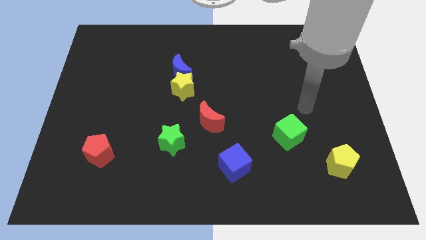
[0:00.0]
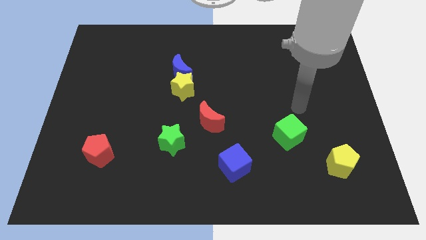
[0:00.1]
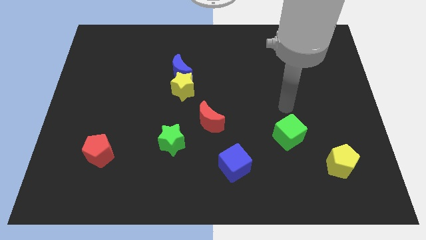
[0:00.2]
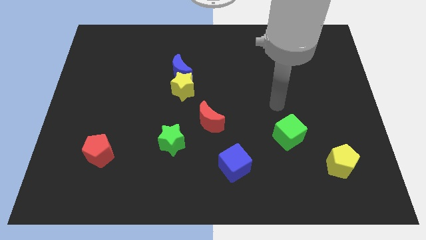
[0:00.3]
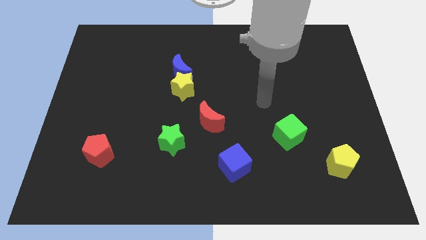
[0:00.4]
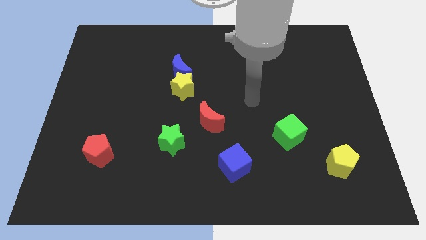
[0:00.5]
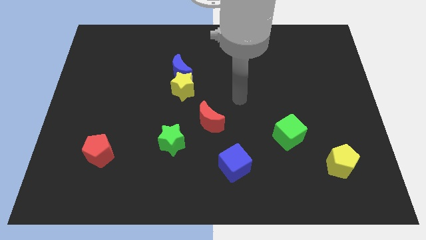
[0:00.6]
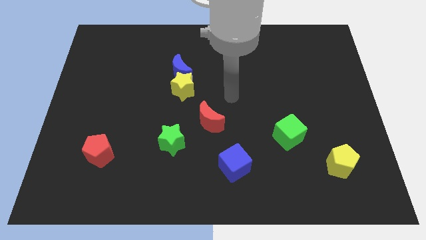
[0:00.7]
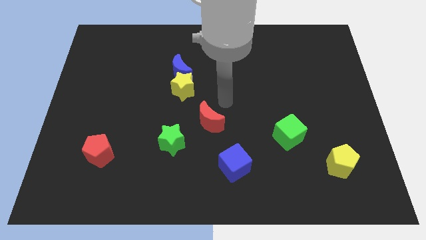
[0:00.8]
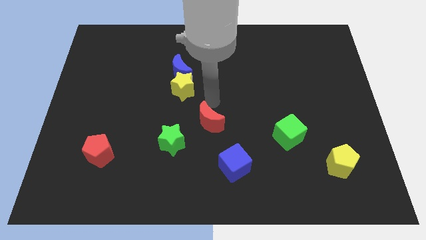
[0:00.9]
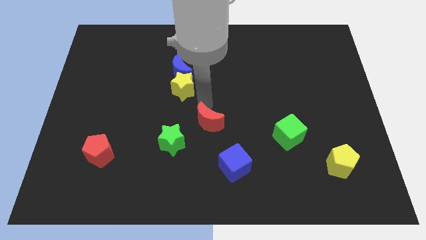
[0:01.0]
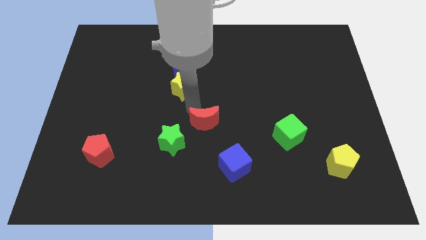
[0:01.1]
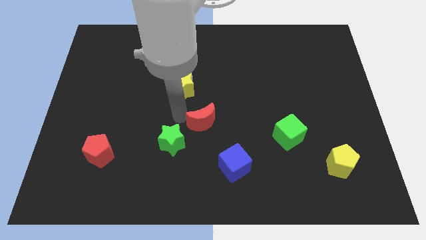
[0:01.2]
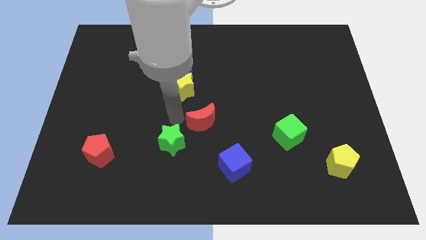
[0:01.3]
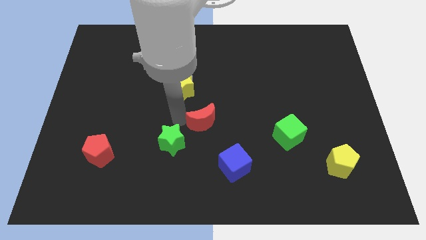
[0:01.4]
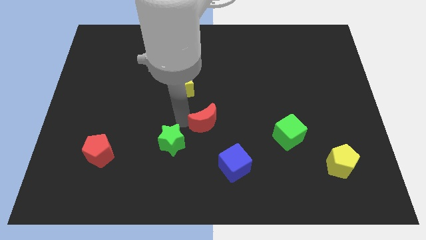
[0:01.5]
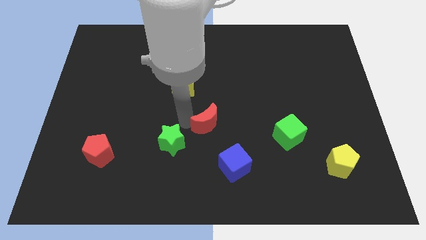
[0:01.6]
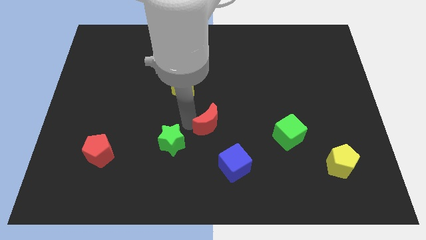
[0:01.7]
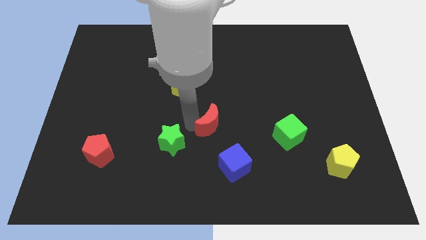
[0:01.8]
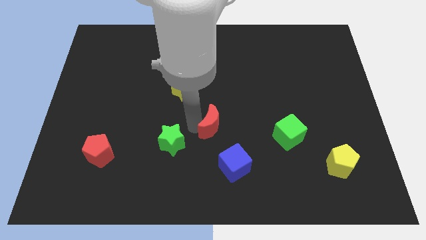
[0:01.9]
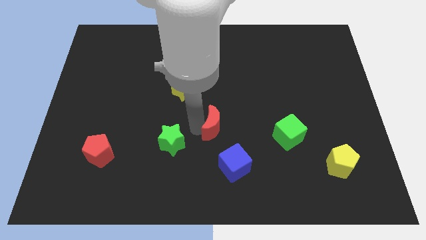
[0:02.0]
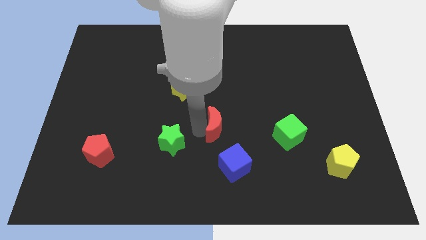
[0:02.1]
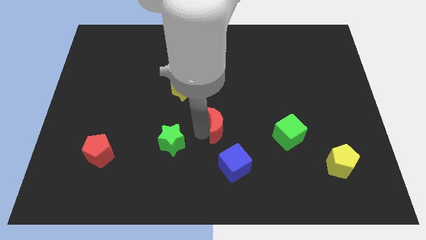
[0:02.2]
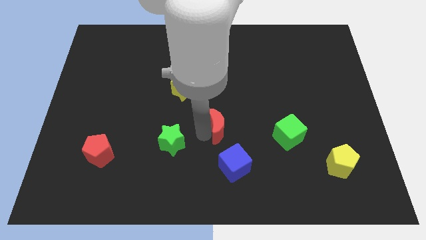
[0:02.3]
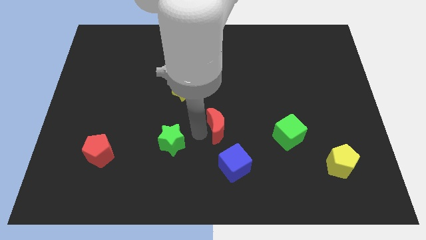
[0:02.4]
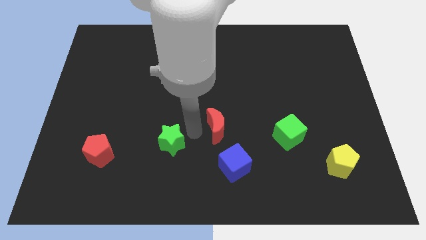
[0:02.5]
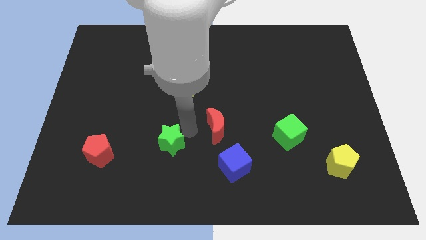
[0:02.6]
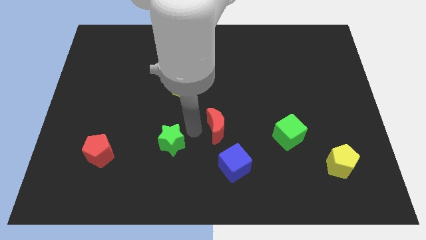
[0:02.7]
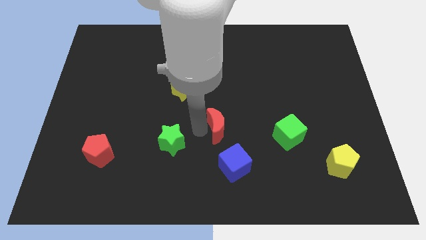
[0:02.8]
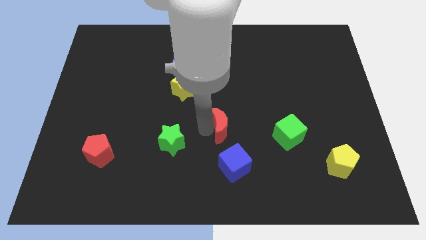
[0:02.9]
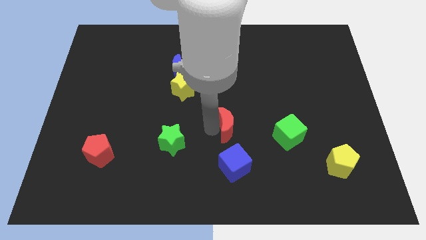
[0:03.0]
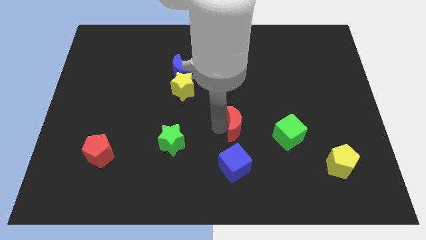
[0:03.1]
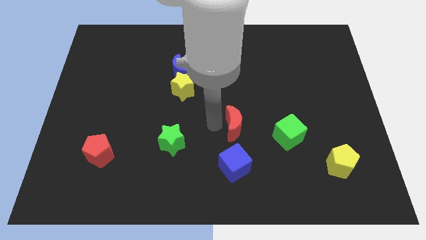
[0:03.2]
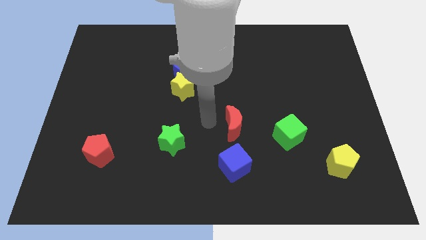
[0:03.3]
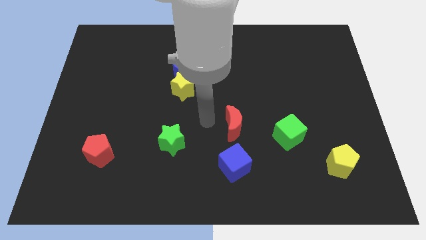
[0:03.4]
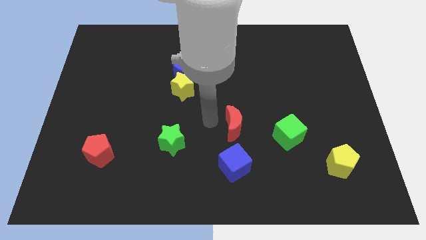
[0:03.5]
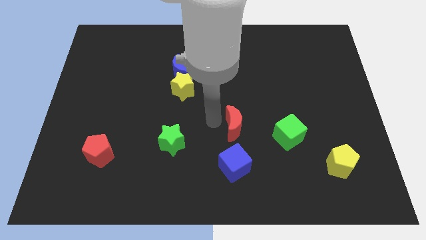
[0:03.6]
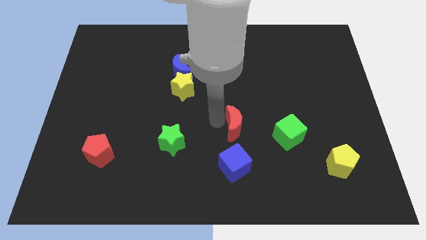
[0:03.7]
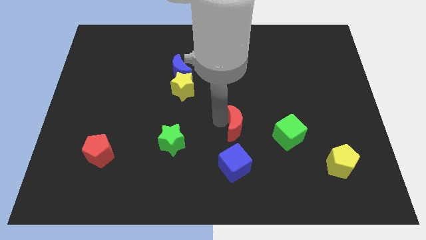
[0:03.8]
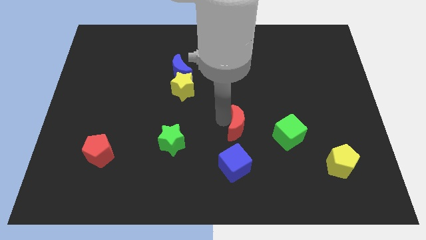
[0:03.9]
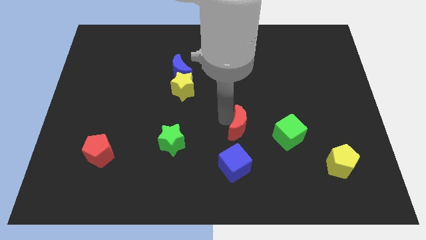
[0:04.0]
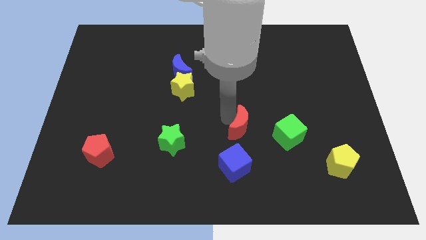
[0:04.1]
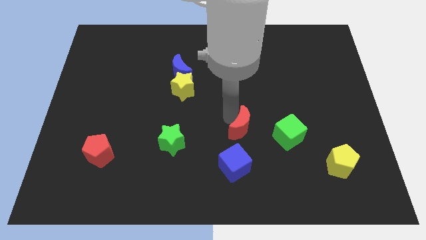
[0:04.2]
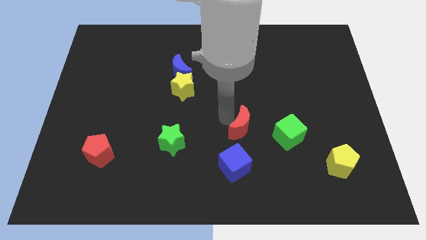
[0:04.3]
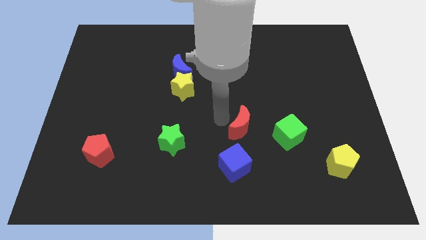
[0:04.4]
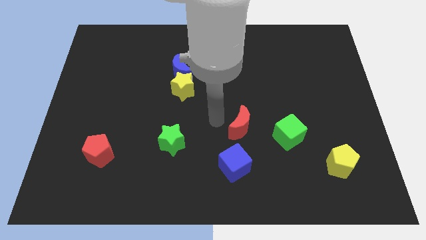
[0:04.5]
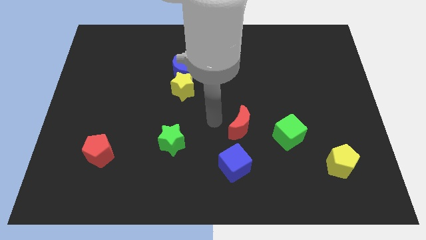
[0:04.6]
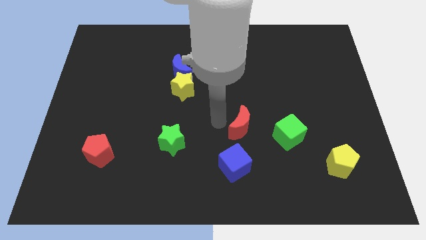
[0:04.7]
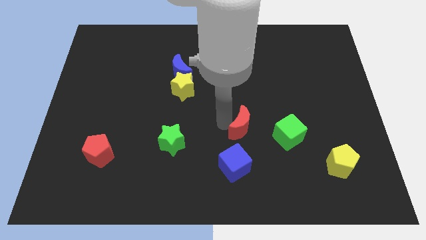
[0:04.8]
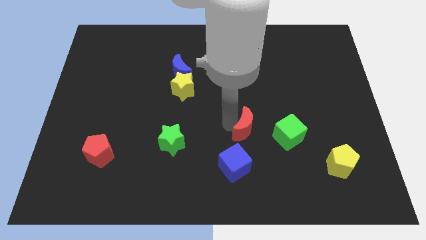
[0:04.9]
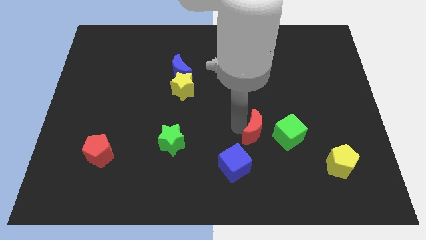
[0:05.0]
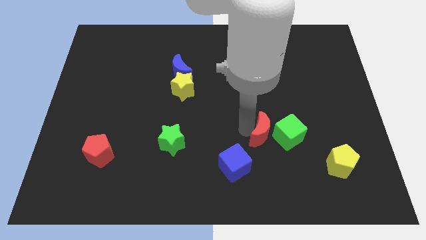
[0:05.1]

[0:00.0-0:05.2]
move the red moon towards the green cube

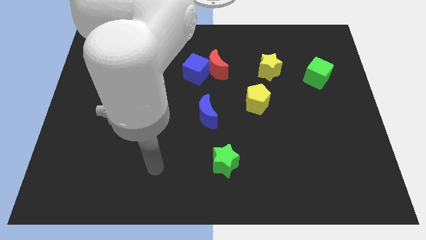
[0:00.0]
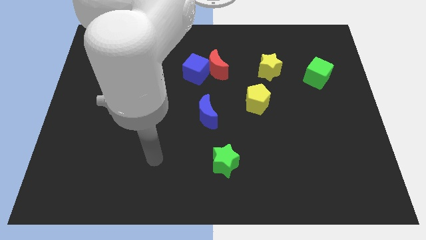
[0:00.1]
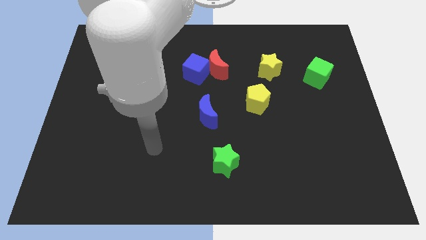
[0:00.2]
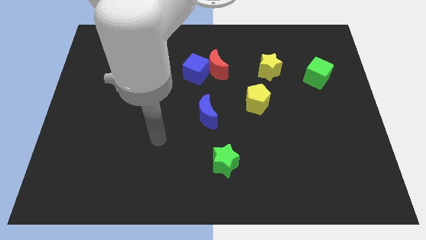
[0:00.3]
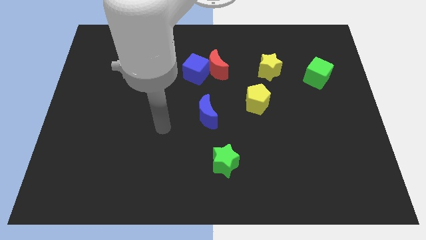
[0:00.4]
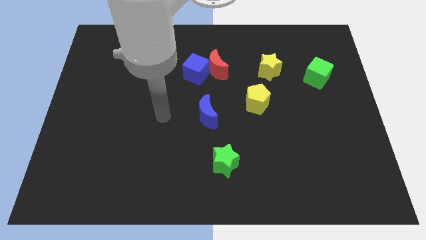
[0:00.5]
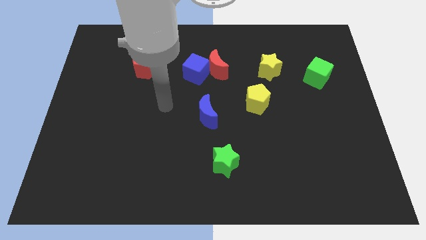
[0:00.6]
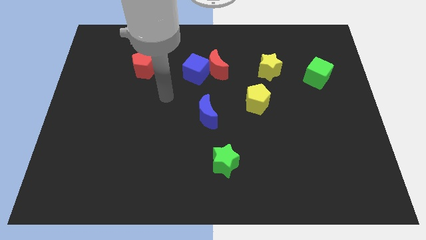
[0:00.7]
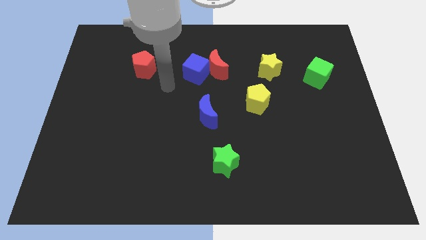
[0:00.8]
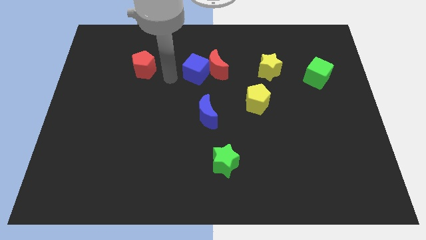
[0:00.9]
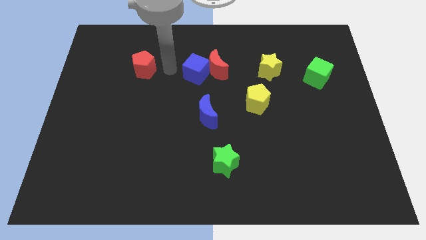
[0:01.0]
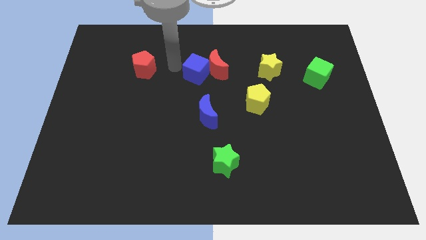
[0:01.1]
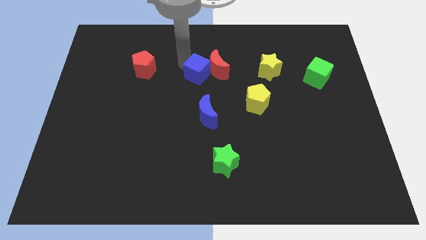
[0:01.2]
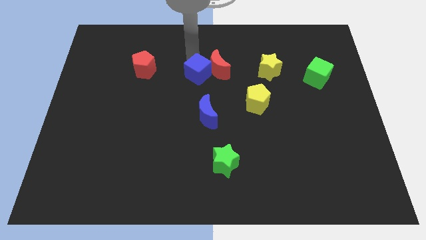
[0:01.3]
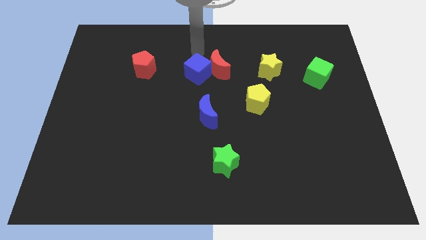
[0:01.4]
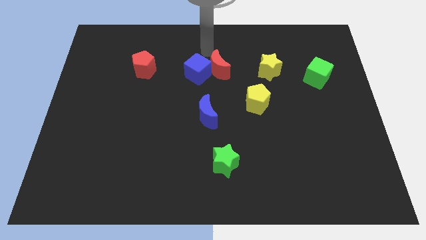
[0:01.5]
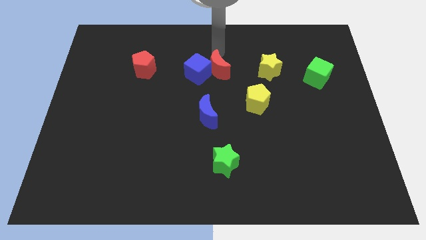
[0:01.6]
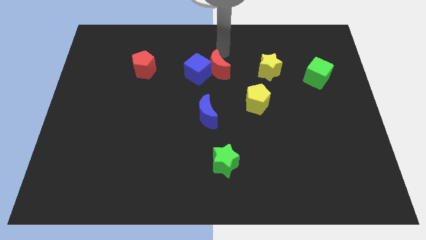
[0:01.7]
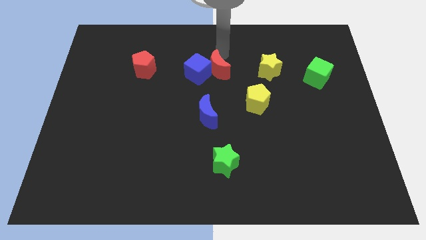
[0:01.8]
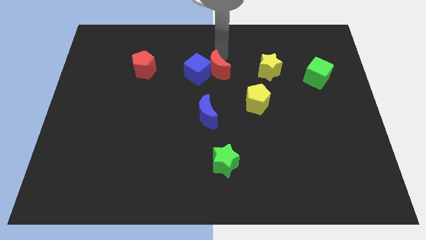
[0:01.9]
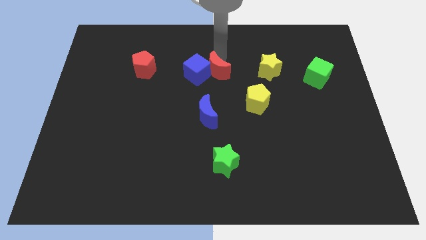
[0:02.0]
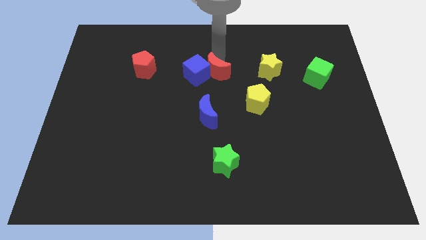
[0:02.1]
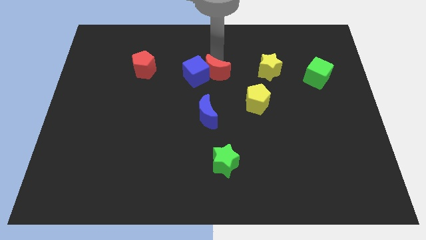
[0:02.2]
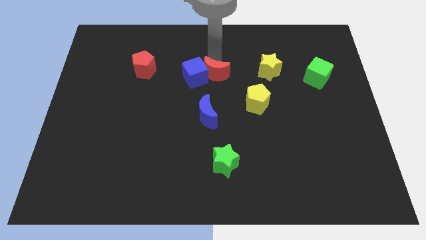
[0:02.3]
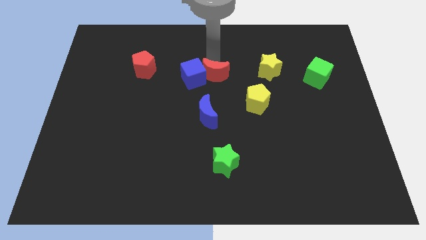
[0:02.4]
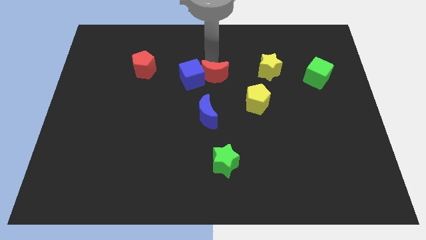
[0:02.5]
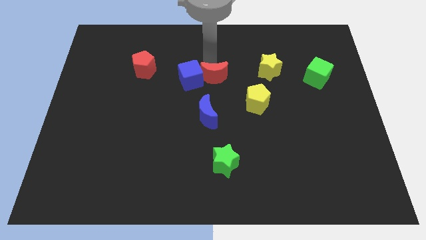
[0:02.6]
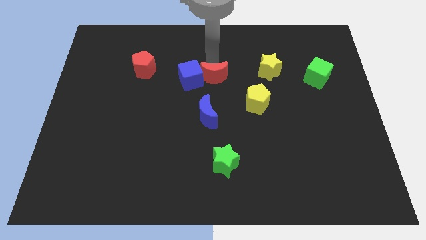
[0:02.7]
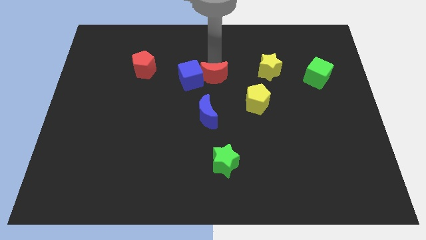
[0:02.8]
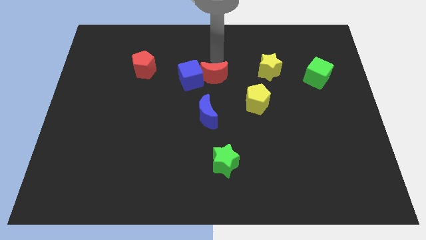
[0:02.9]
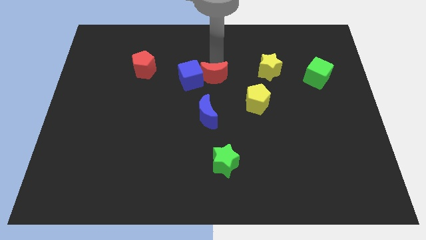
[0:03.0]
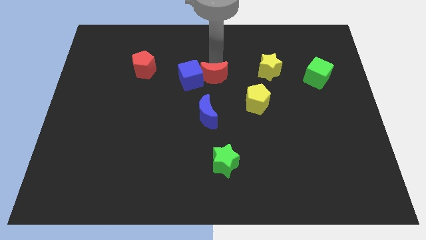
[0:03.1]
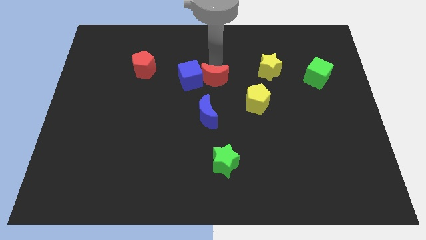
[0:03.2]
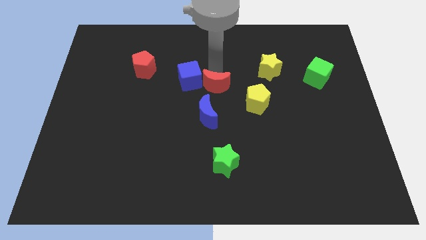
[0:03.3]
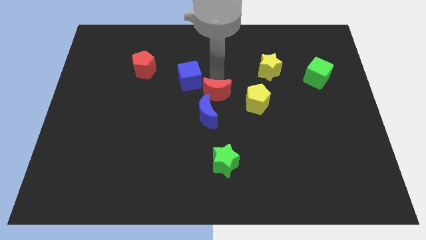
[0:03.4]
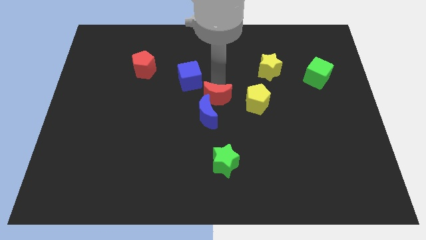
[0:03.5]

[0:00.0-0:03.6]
put the red moon to the blue moon
